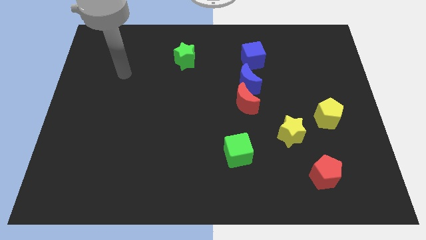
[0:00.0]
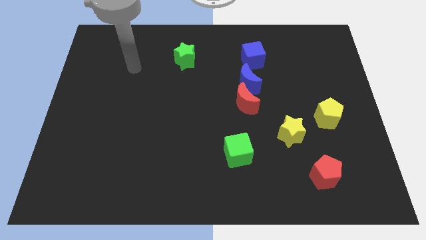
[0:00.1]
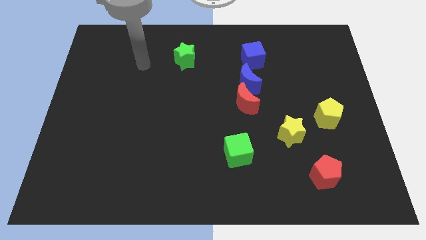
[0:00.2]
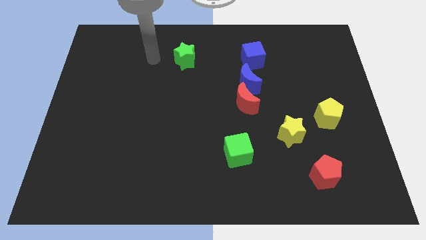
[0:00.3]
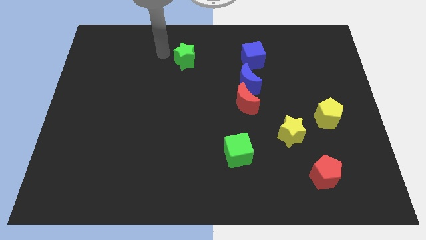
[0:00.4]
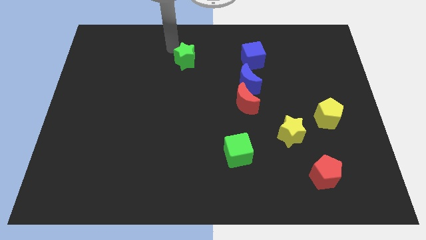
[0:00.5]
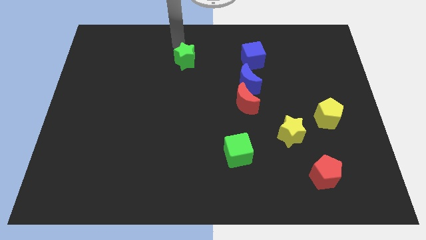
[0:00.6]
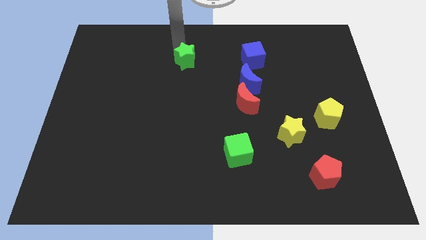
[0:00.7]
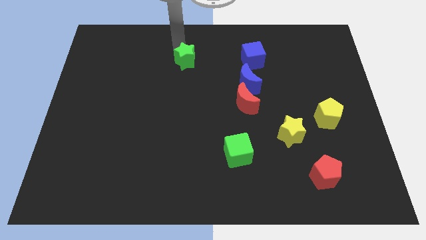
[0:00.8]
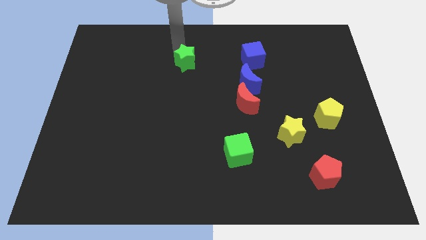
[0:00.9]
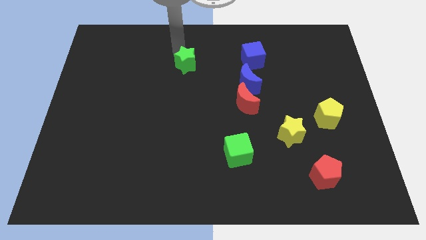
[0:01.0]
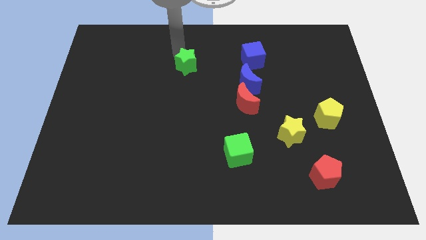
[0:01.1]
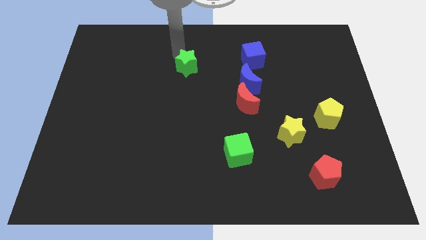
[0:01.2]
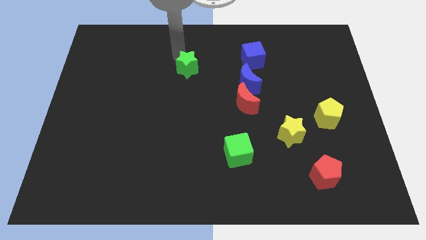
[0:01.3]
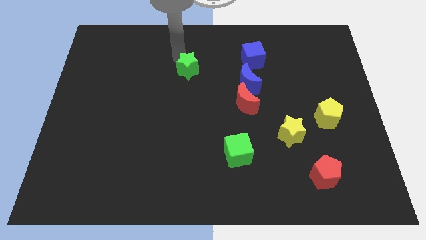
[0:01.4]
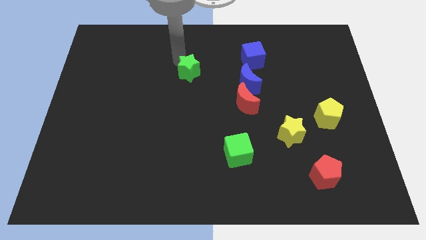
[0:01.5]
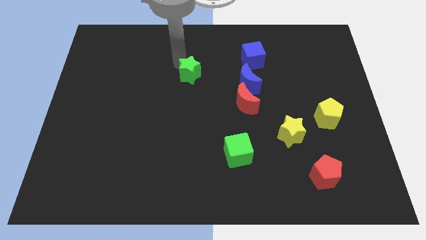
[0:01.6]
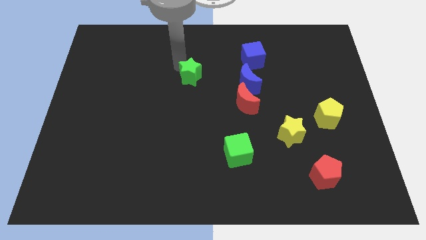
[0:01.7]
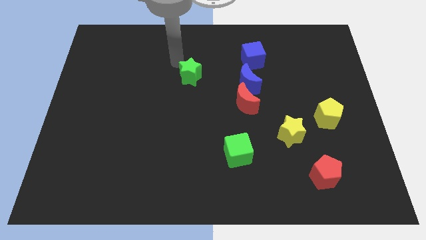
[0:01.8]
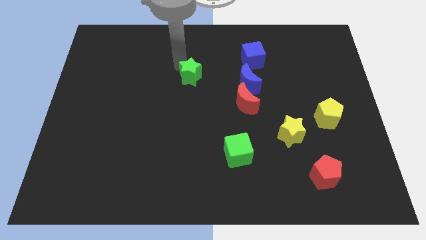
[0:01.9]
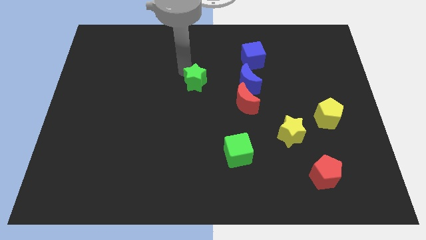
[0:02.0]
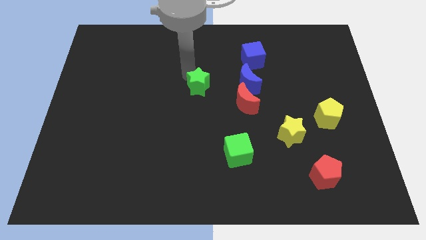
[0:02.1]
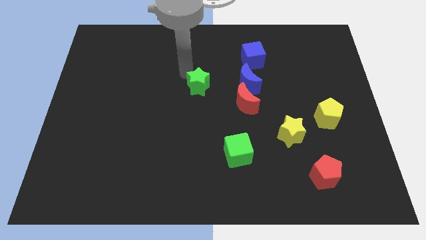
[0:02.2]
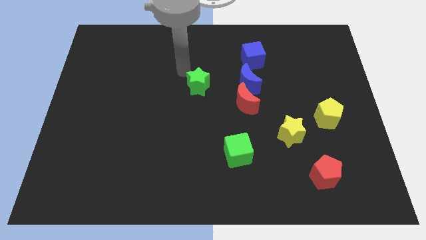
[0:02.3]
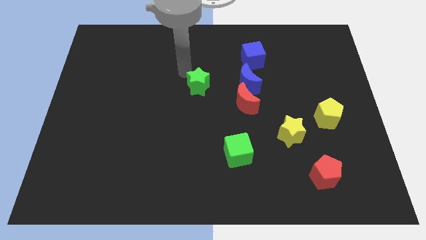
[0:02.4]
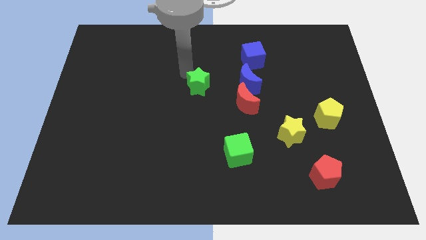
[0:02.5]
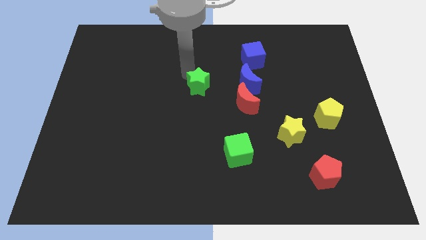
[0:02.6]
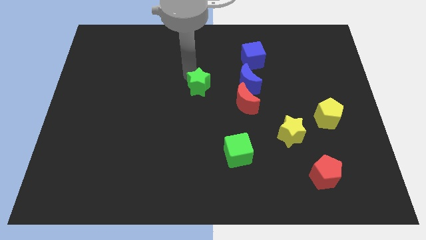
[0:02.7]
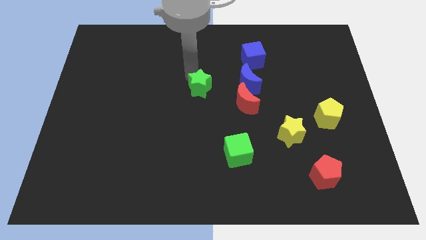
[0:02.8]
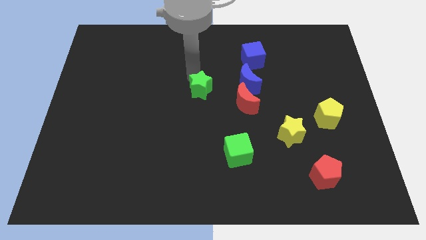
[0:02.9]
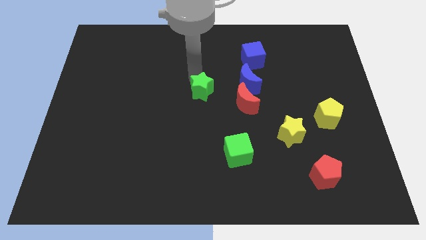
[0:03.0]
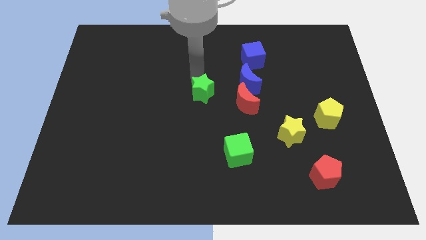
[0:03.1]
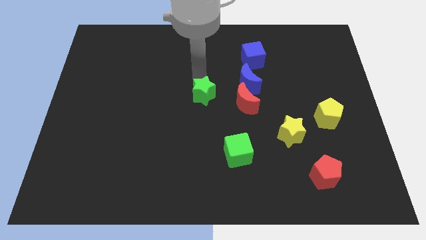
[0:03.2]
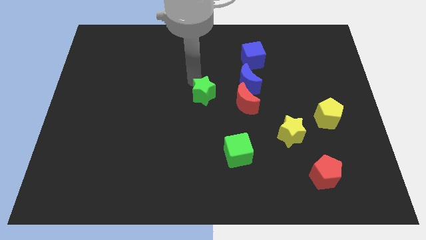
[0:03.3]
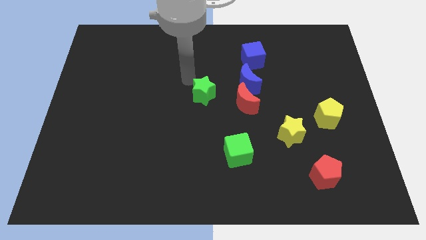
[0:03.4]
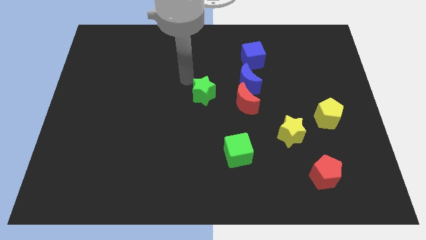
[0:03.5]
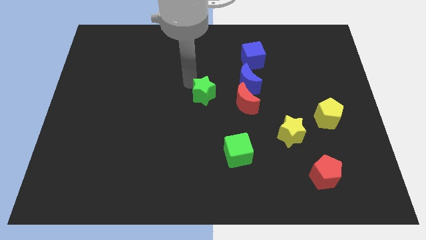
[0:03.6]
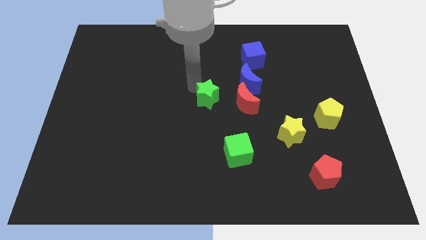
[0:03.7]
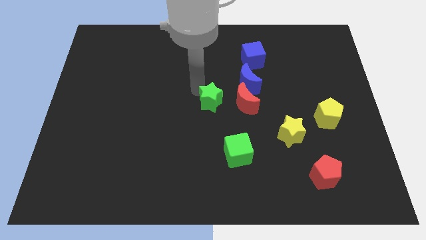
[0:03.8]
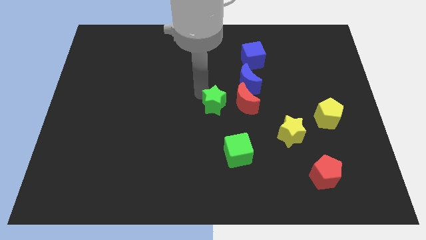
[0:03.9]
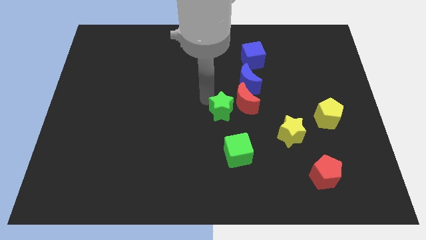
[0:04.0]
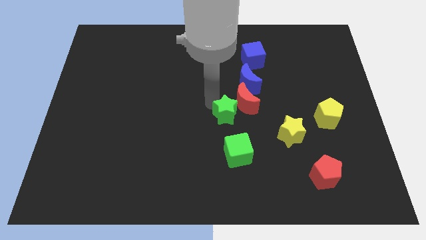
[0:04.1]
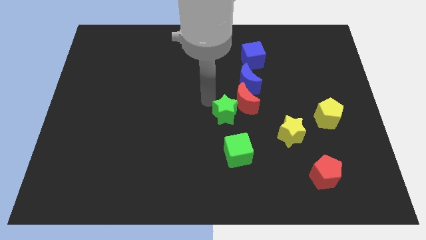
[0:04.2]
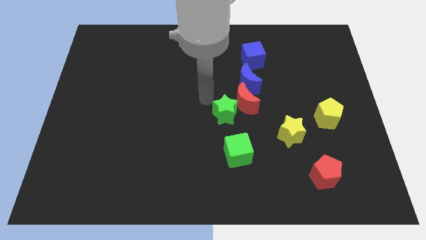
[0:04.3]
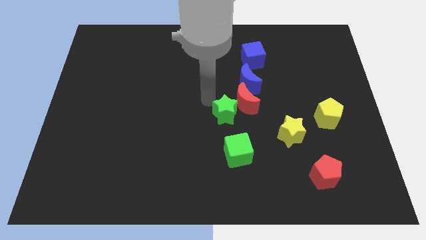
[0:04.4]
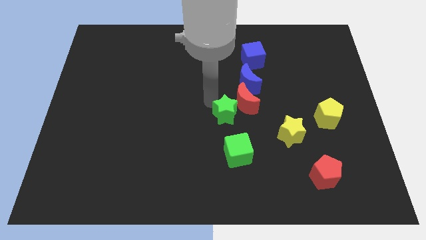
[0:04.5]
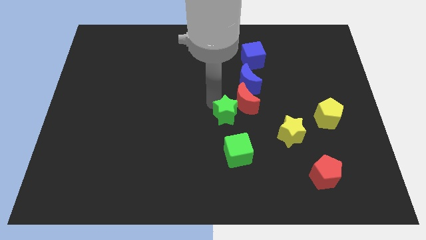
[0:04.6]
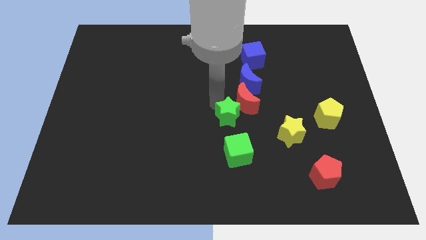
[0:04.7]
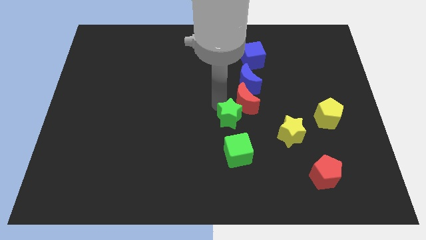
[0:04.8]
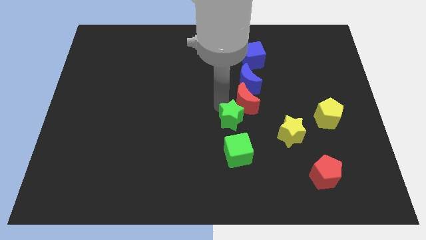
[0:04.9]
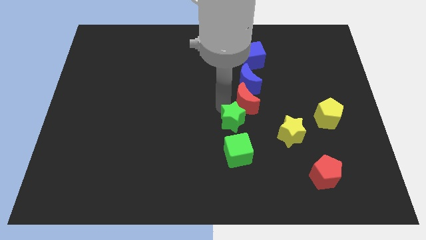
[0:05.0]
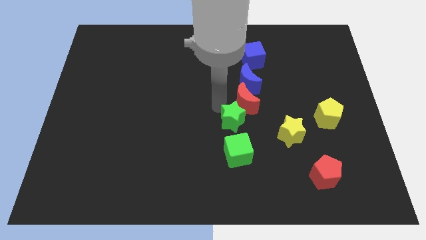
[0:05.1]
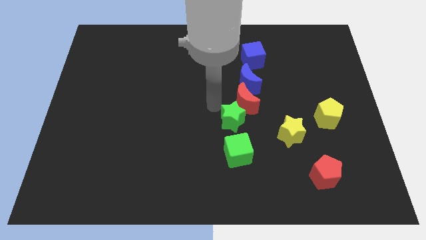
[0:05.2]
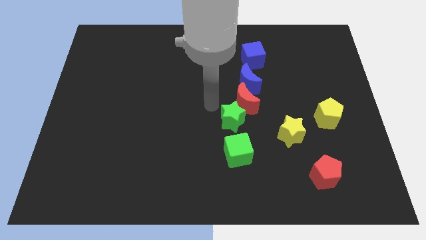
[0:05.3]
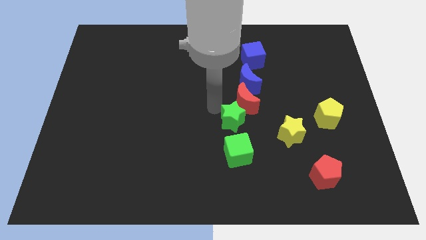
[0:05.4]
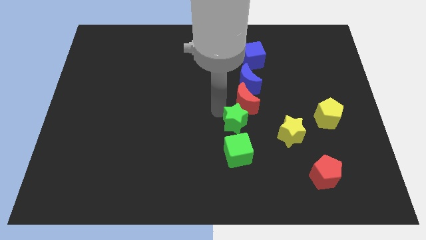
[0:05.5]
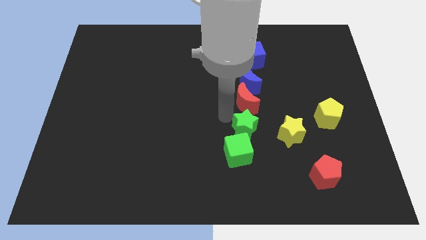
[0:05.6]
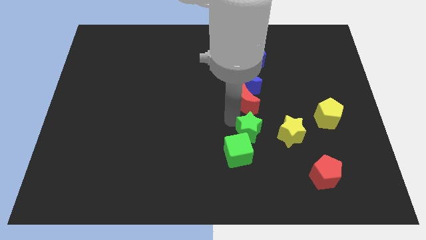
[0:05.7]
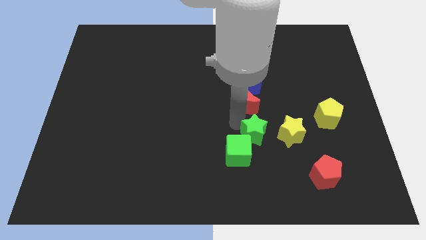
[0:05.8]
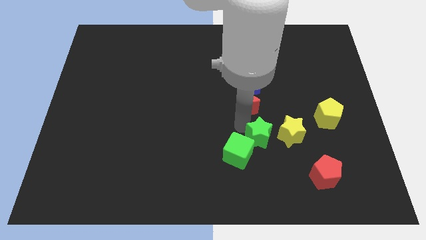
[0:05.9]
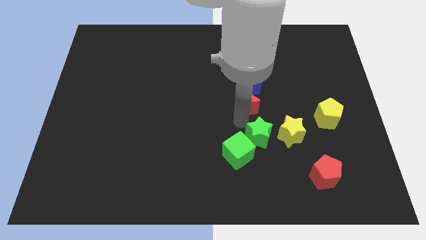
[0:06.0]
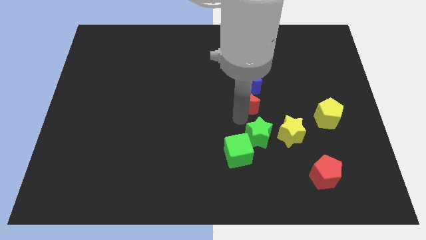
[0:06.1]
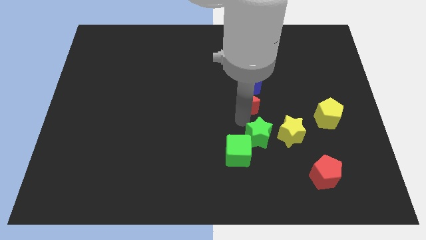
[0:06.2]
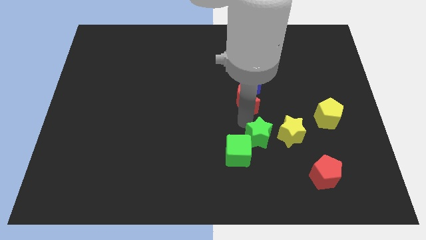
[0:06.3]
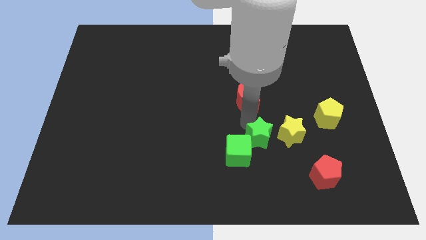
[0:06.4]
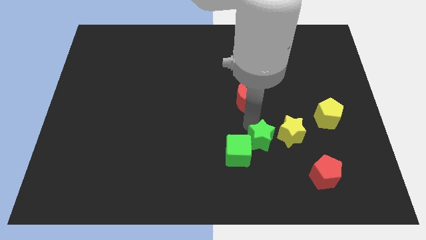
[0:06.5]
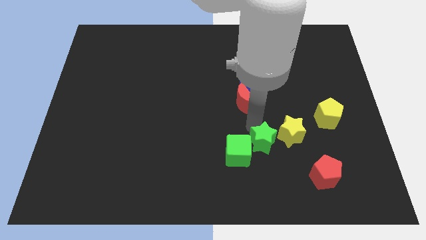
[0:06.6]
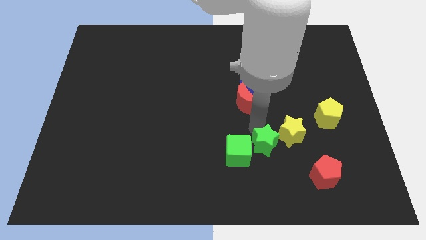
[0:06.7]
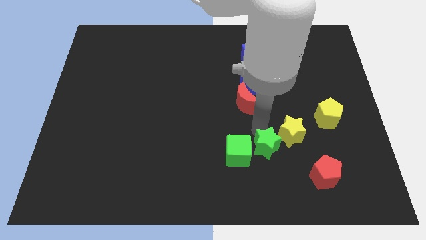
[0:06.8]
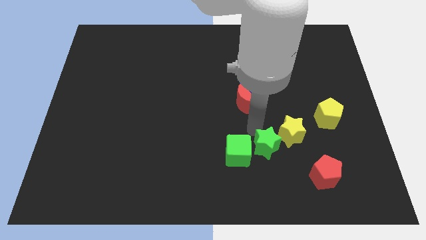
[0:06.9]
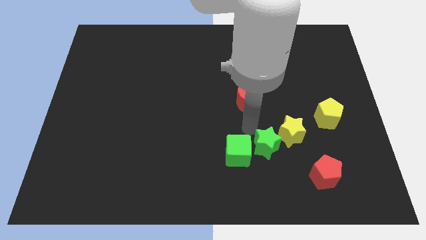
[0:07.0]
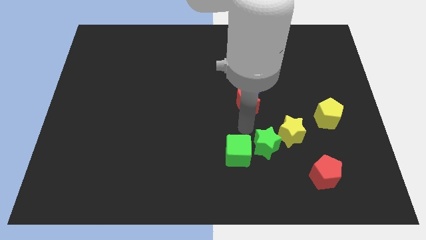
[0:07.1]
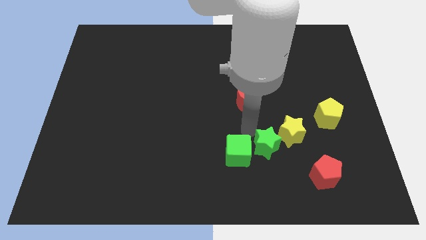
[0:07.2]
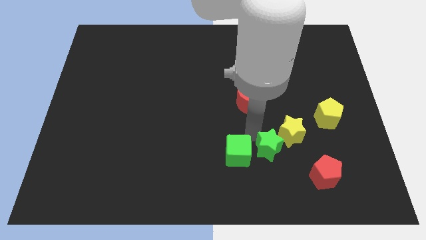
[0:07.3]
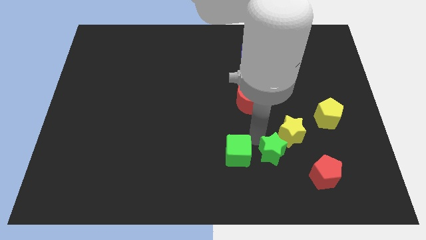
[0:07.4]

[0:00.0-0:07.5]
move the green star below the yellow star
